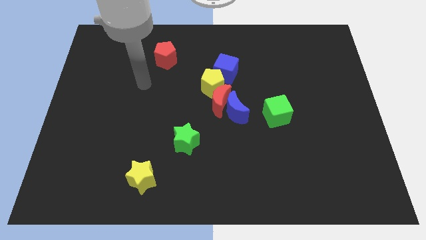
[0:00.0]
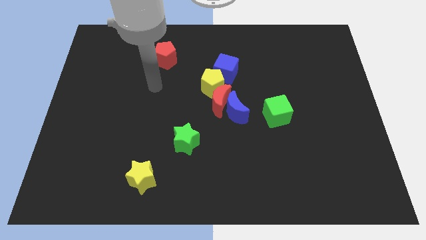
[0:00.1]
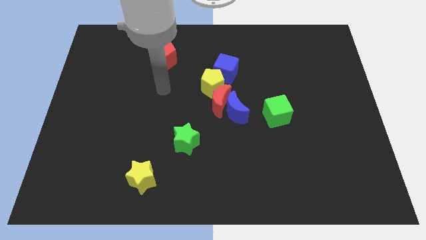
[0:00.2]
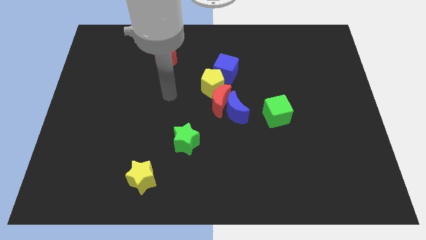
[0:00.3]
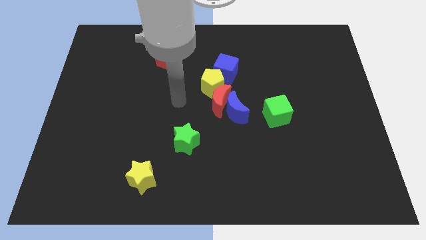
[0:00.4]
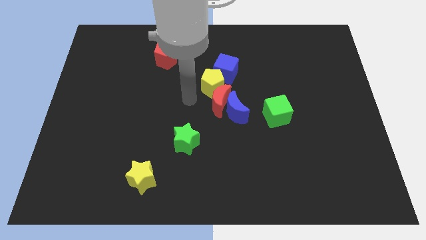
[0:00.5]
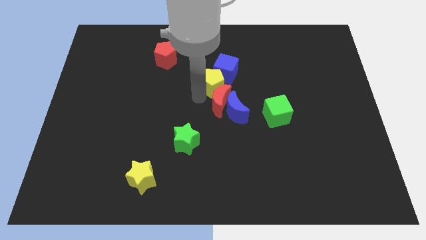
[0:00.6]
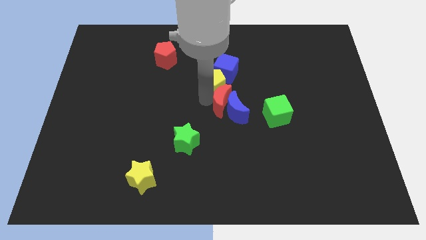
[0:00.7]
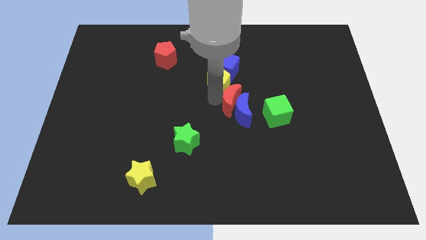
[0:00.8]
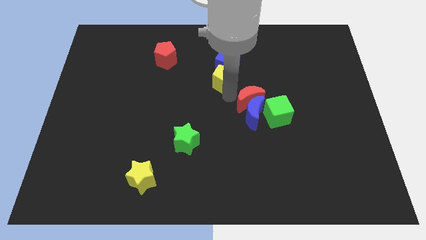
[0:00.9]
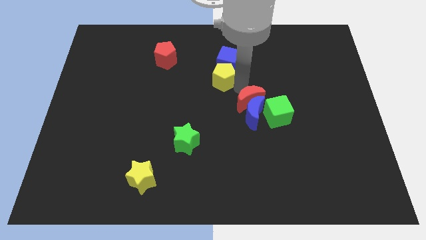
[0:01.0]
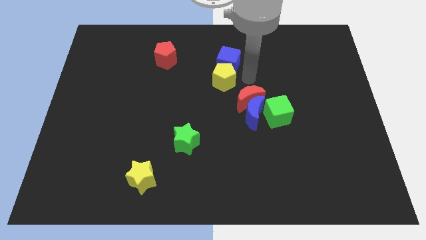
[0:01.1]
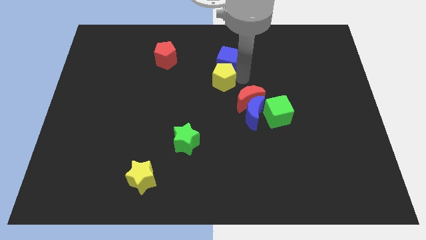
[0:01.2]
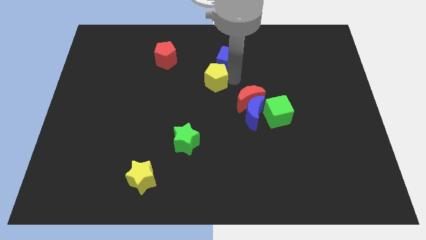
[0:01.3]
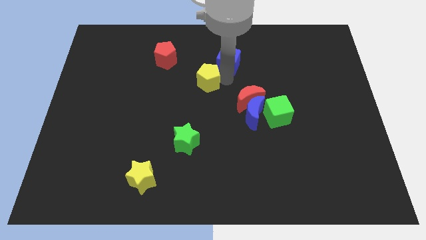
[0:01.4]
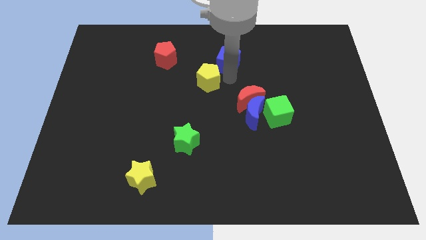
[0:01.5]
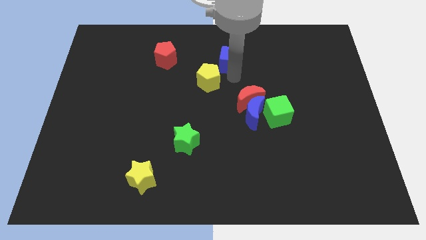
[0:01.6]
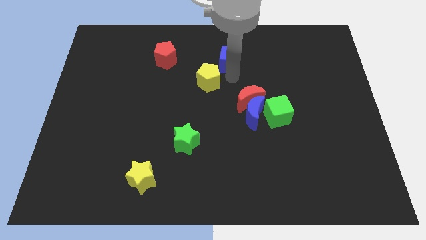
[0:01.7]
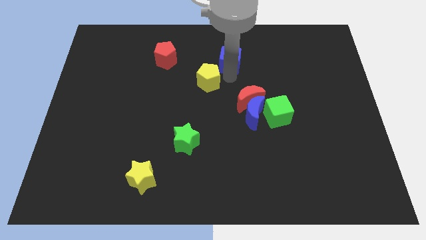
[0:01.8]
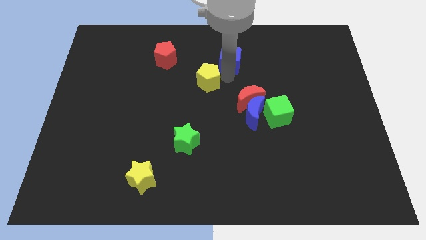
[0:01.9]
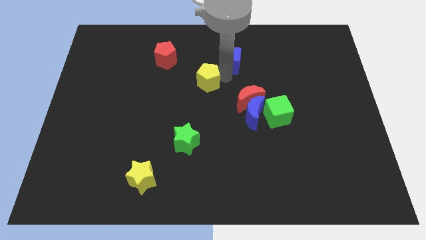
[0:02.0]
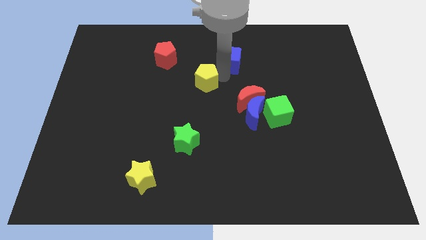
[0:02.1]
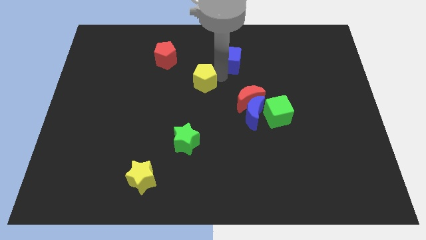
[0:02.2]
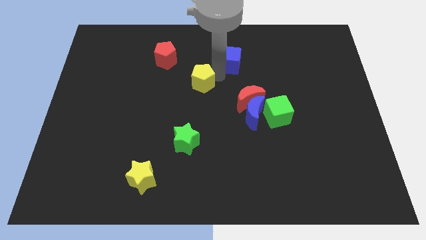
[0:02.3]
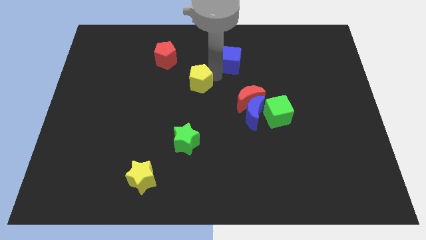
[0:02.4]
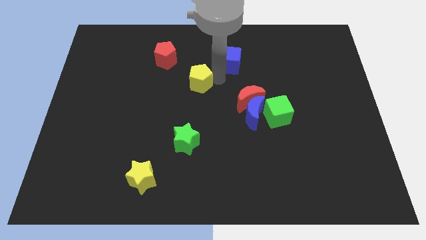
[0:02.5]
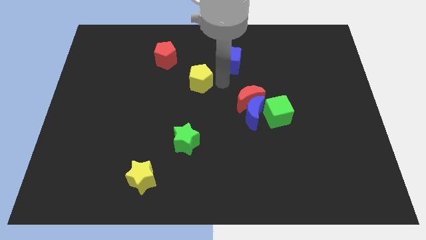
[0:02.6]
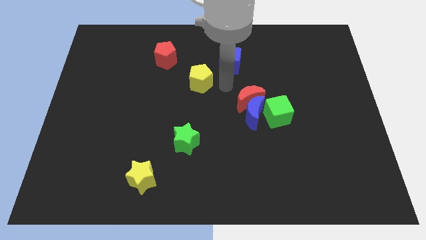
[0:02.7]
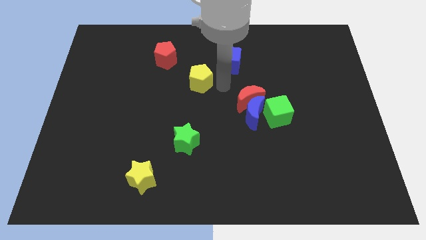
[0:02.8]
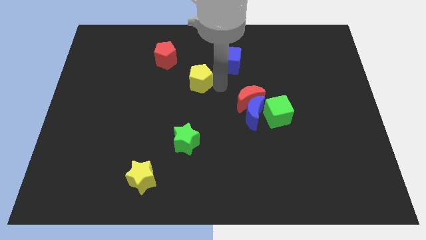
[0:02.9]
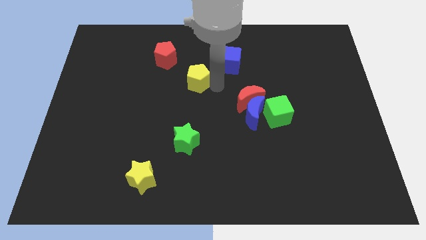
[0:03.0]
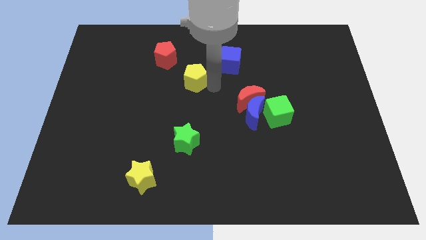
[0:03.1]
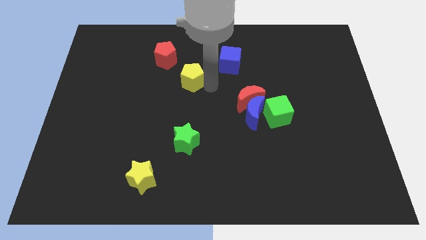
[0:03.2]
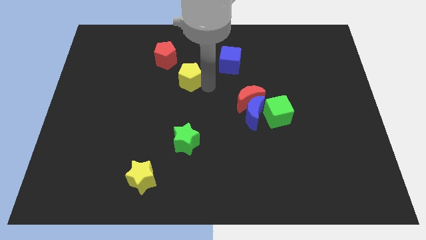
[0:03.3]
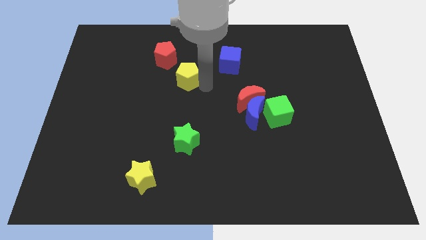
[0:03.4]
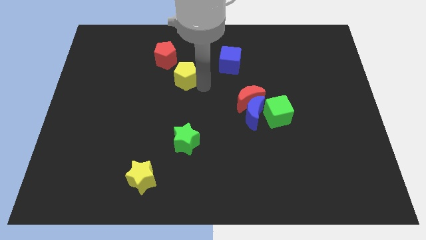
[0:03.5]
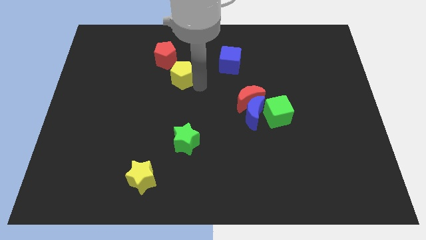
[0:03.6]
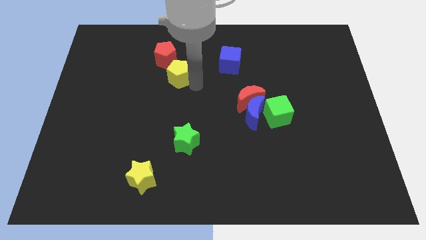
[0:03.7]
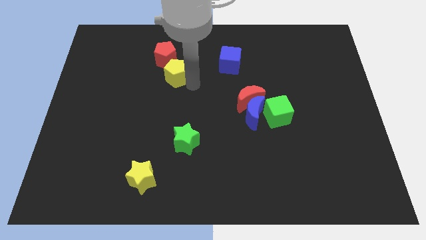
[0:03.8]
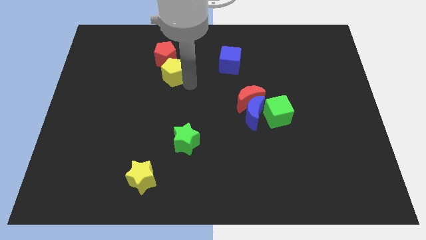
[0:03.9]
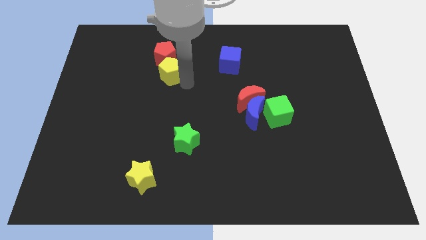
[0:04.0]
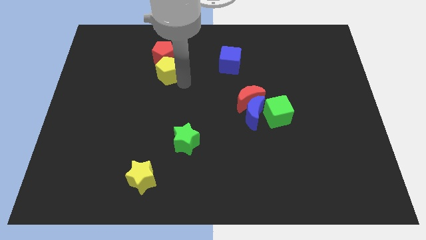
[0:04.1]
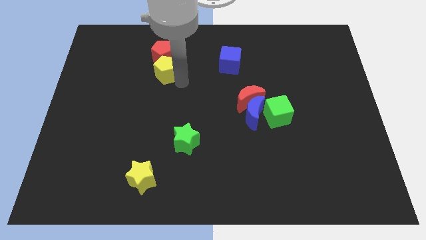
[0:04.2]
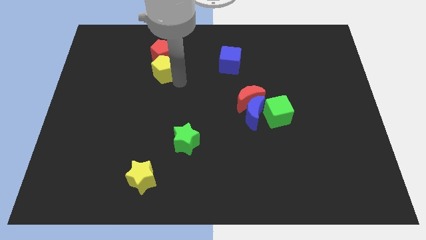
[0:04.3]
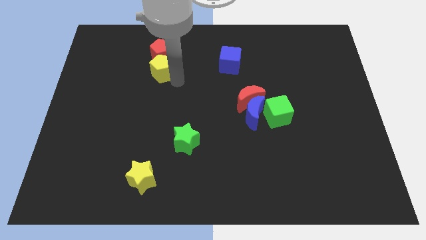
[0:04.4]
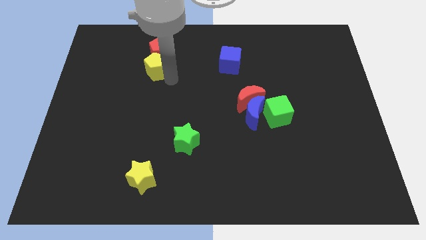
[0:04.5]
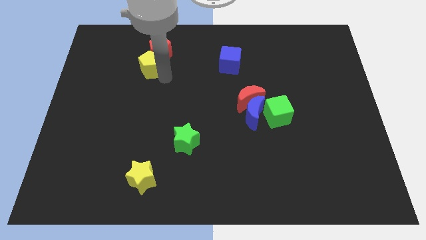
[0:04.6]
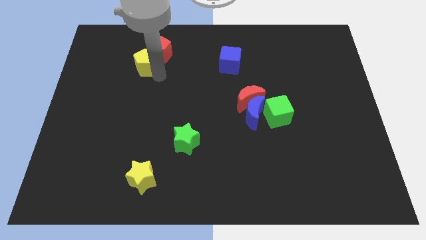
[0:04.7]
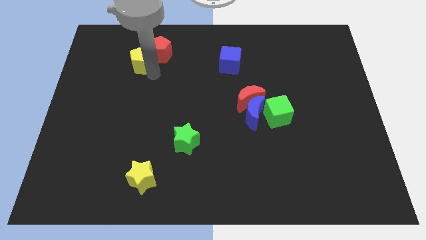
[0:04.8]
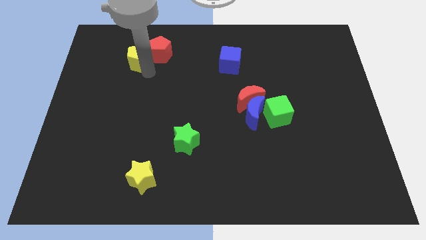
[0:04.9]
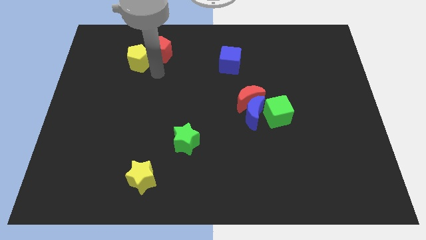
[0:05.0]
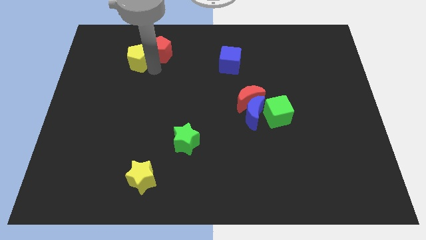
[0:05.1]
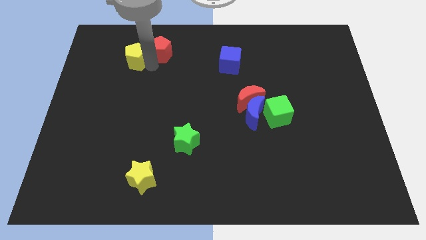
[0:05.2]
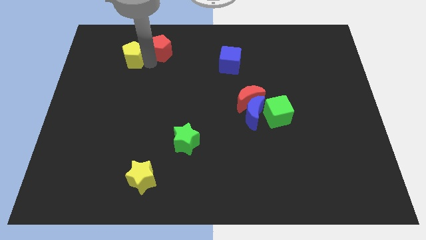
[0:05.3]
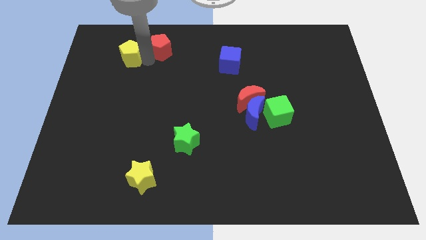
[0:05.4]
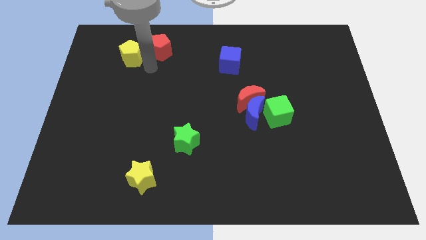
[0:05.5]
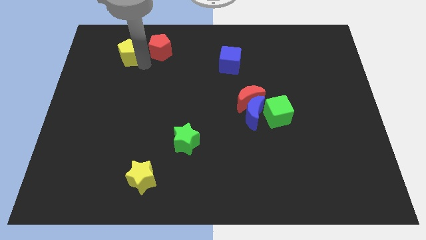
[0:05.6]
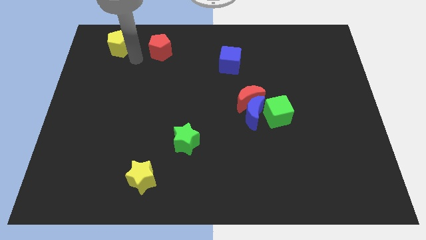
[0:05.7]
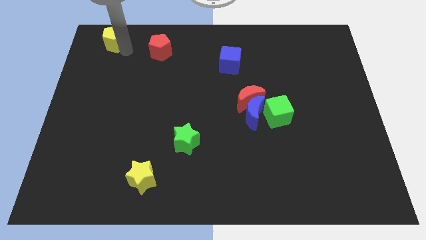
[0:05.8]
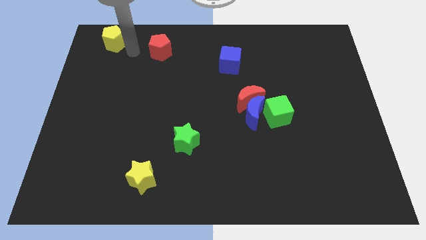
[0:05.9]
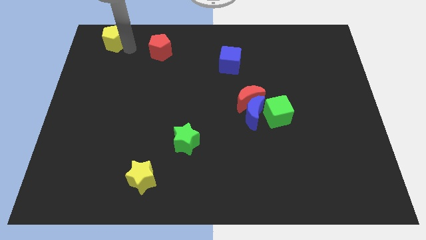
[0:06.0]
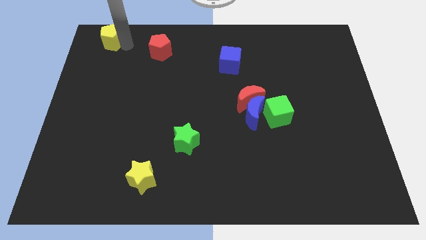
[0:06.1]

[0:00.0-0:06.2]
put the yellow pentagon to the top left of the board
